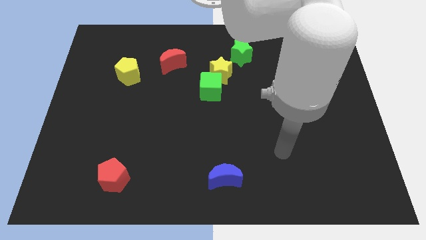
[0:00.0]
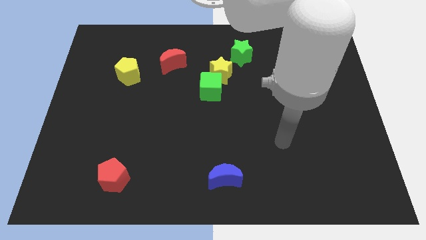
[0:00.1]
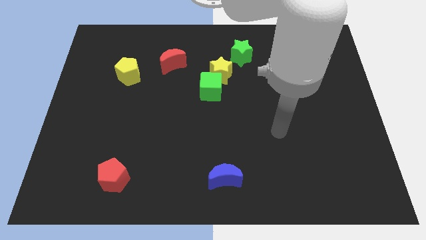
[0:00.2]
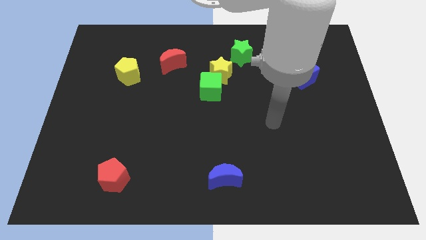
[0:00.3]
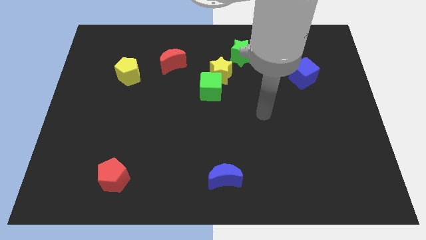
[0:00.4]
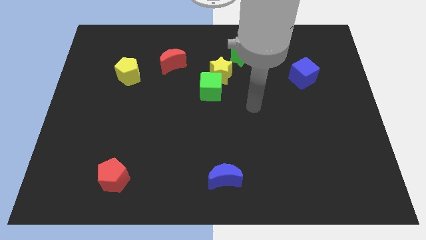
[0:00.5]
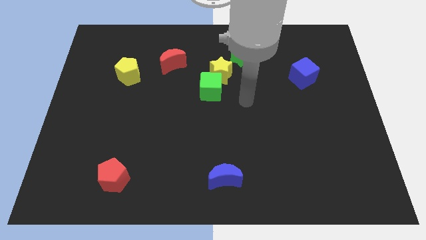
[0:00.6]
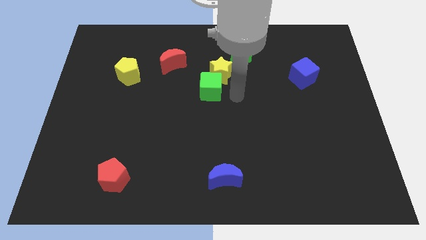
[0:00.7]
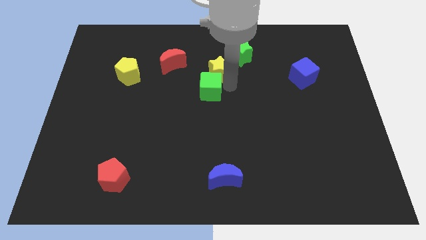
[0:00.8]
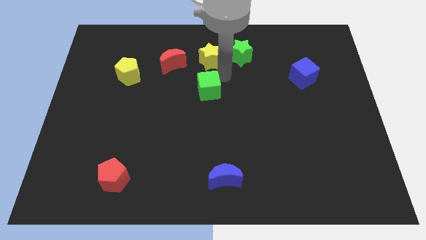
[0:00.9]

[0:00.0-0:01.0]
move the green cube away from the yellow star

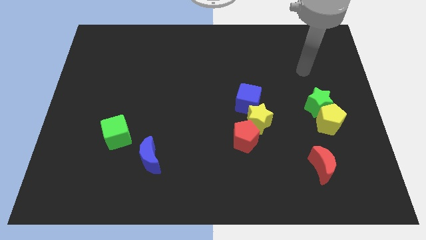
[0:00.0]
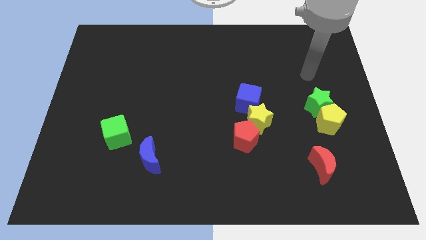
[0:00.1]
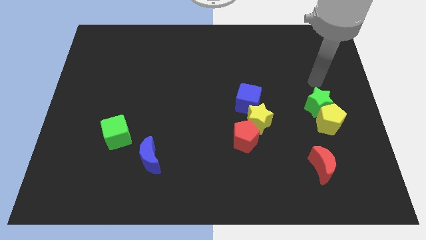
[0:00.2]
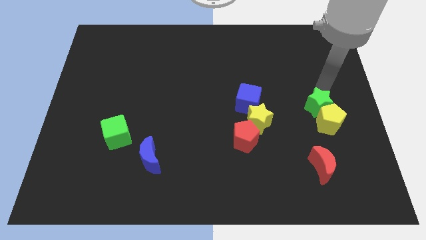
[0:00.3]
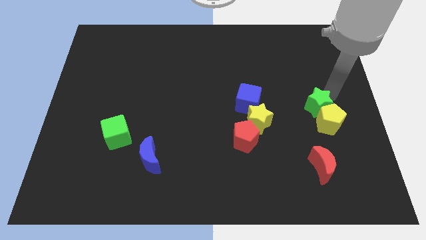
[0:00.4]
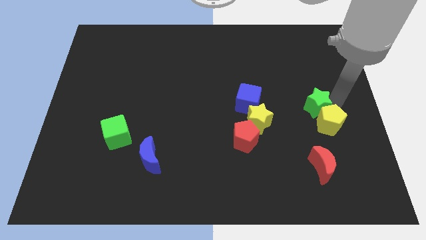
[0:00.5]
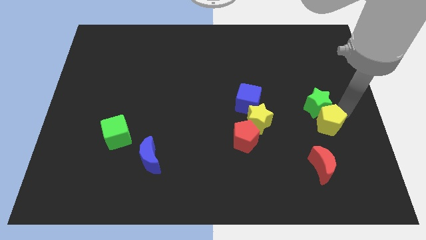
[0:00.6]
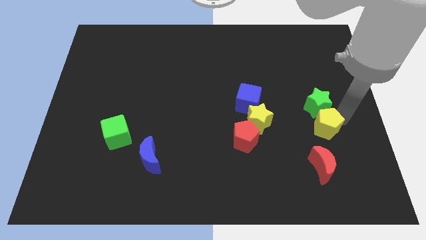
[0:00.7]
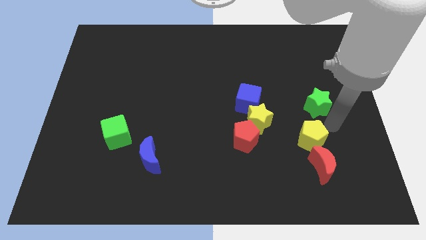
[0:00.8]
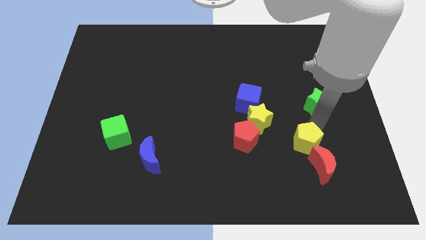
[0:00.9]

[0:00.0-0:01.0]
separate the green star from the yellow pentagon

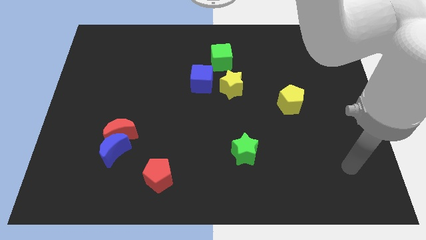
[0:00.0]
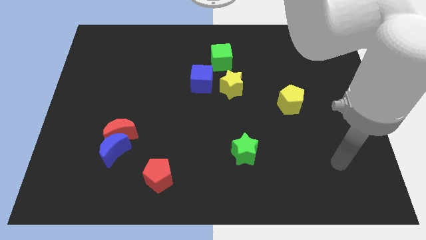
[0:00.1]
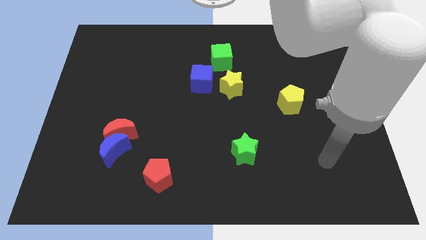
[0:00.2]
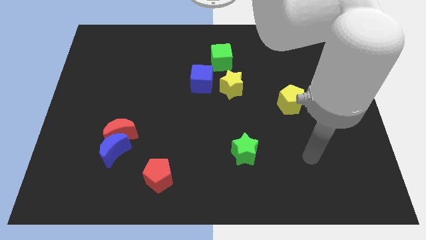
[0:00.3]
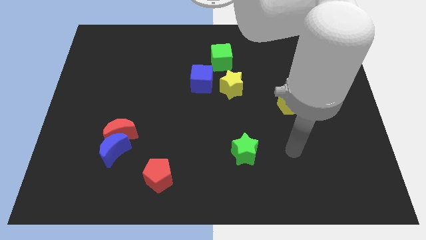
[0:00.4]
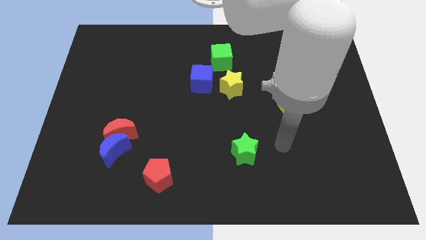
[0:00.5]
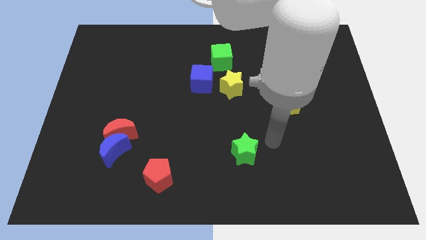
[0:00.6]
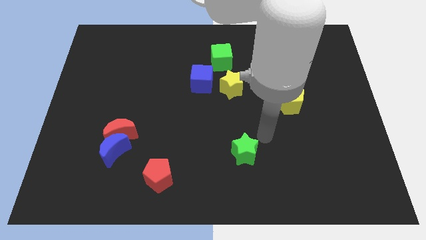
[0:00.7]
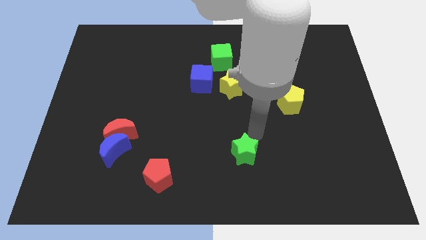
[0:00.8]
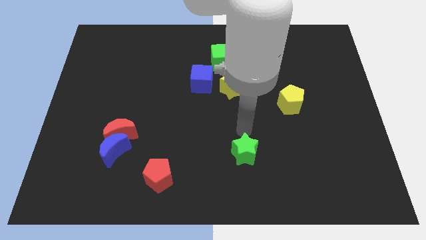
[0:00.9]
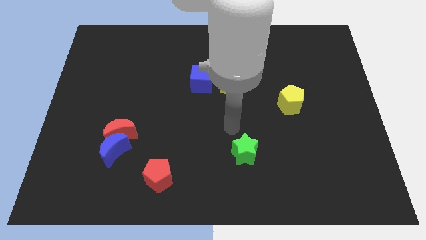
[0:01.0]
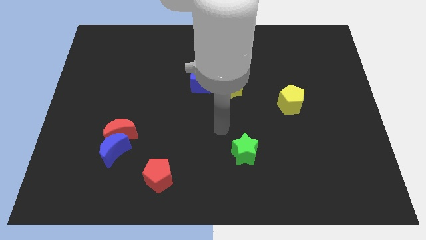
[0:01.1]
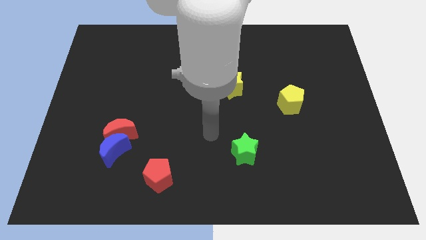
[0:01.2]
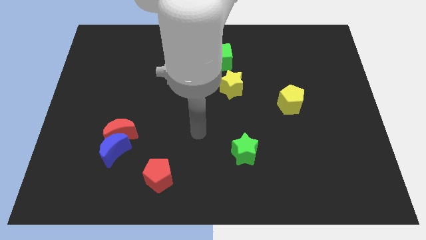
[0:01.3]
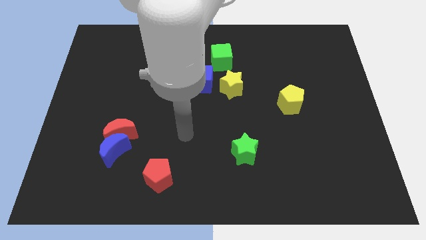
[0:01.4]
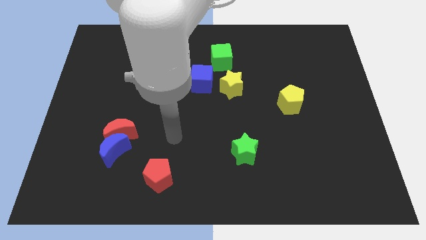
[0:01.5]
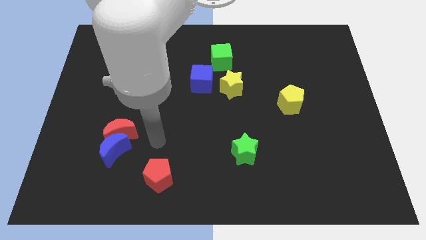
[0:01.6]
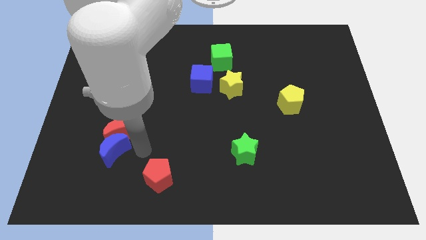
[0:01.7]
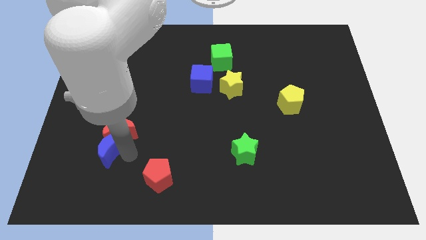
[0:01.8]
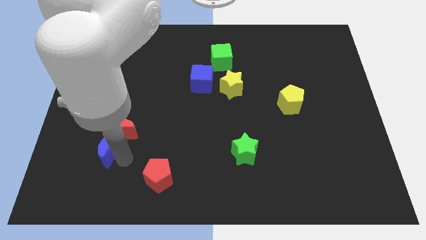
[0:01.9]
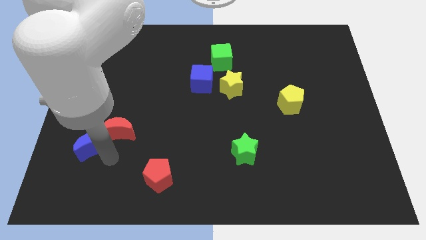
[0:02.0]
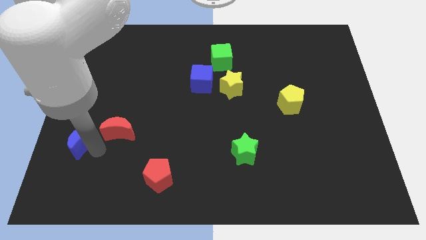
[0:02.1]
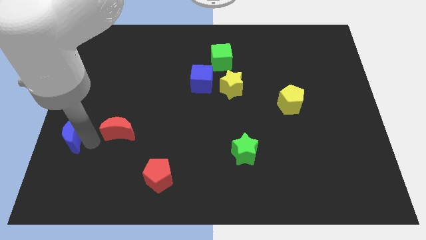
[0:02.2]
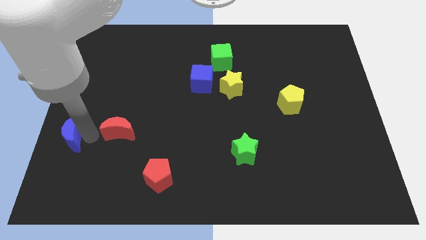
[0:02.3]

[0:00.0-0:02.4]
separate the red moon from the blue moon

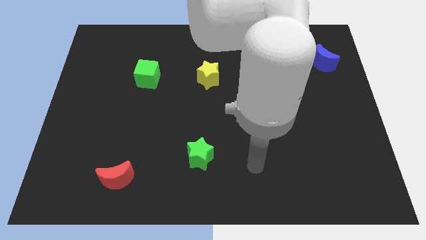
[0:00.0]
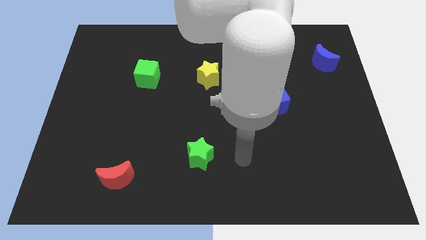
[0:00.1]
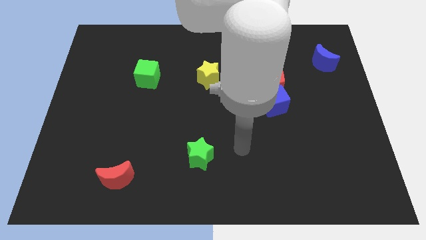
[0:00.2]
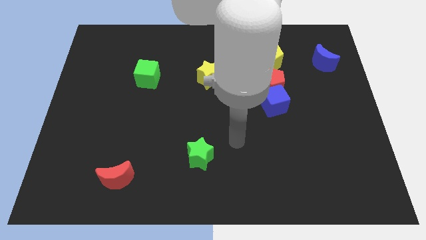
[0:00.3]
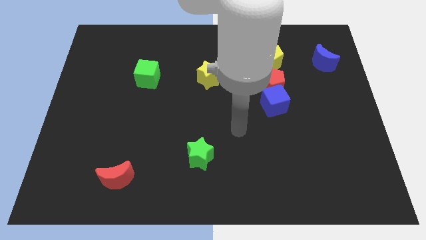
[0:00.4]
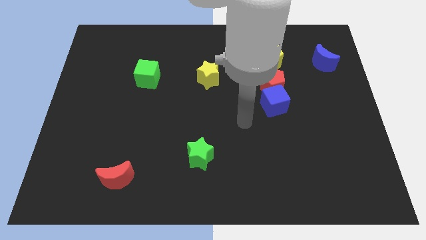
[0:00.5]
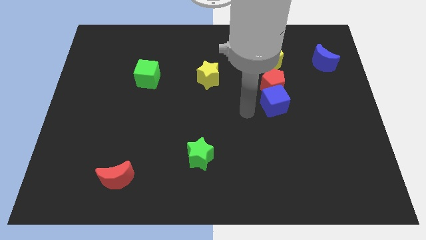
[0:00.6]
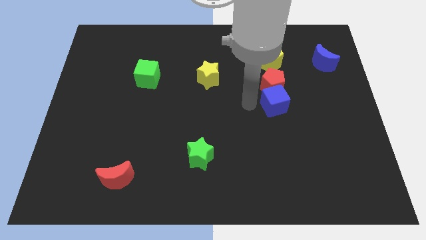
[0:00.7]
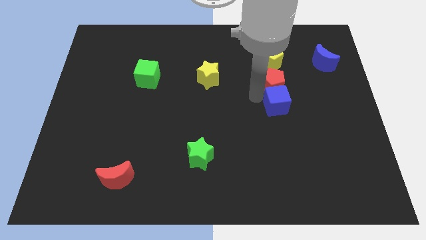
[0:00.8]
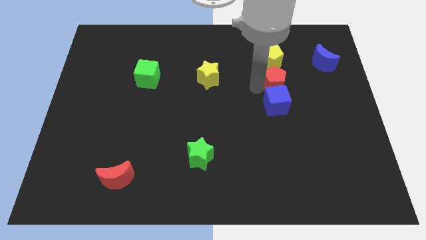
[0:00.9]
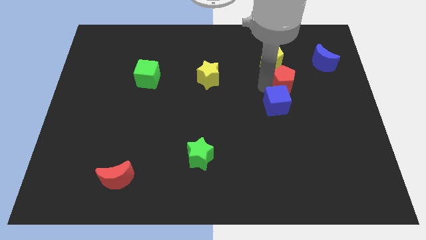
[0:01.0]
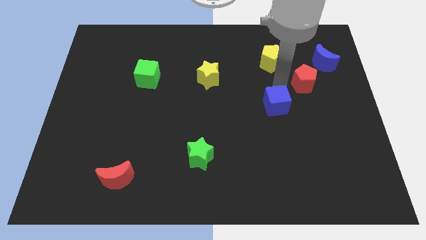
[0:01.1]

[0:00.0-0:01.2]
move the blue cube away from the red pentagon

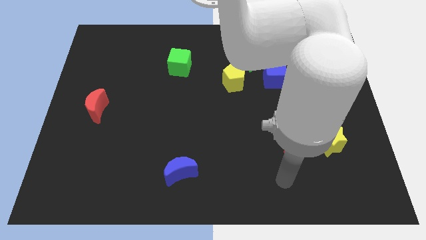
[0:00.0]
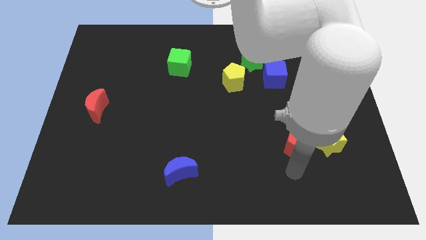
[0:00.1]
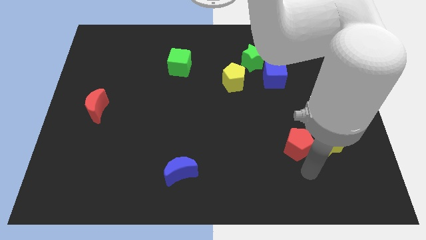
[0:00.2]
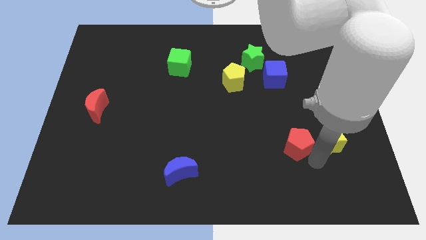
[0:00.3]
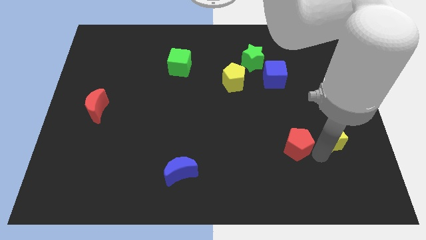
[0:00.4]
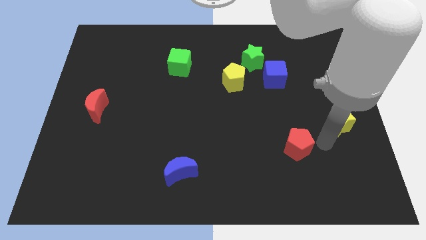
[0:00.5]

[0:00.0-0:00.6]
pull the red pentagon apart from the yellow star

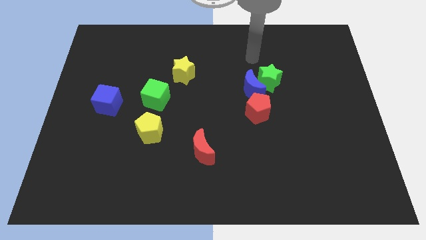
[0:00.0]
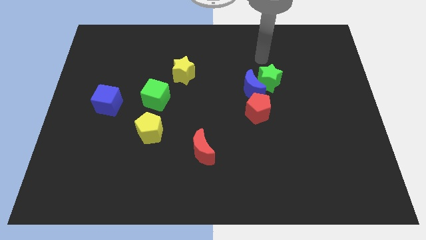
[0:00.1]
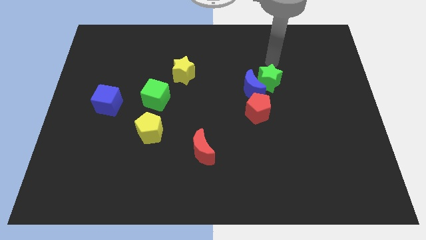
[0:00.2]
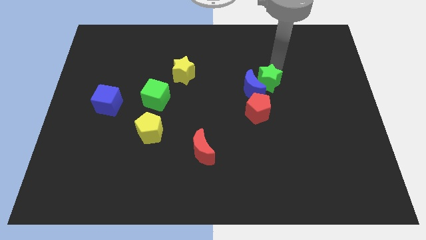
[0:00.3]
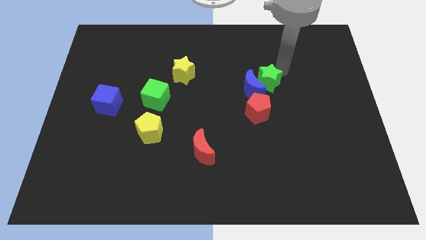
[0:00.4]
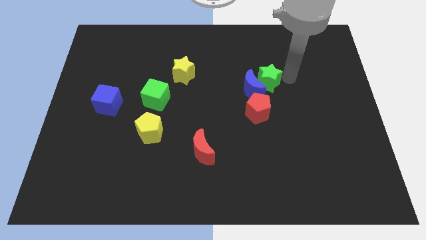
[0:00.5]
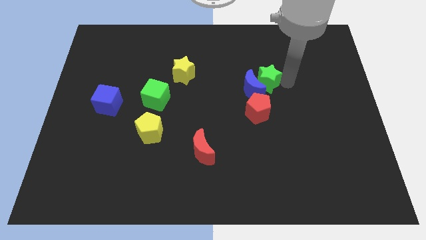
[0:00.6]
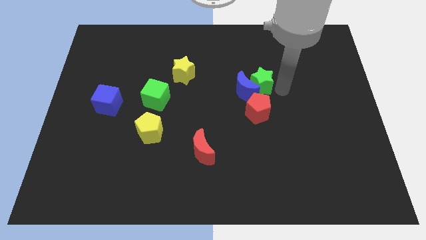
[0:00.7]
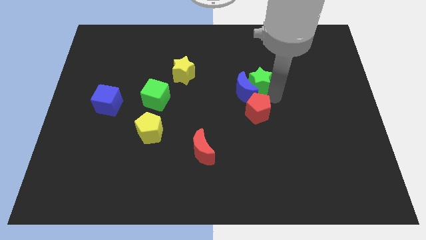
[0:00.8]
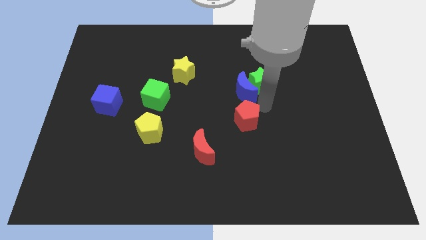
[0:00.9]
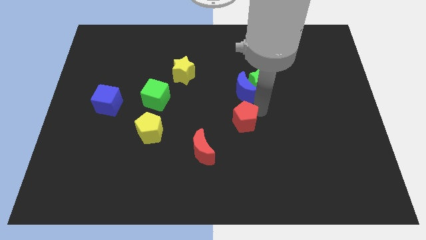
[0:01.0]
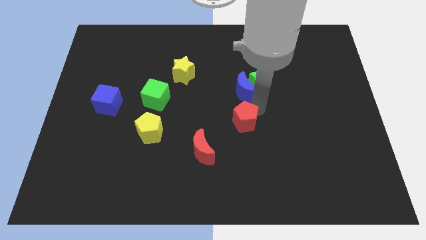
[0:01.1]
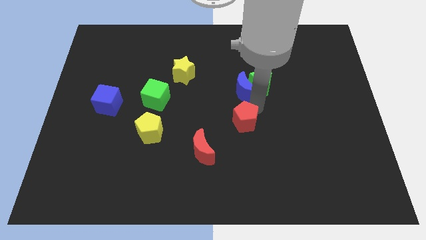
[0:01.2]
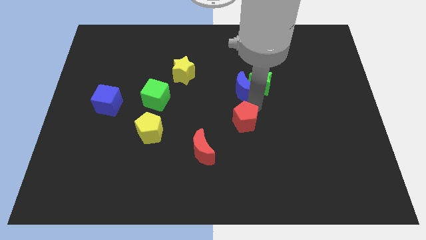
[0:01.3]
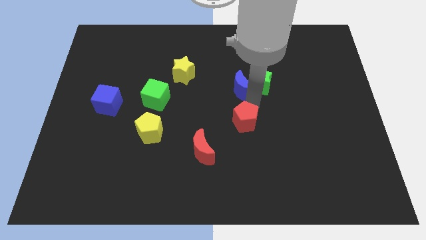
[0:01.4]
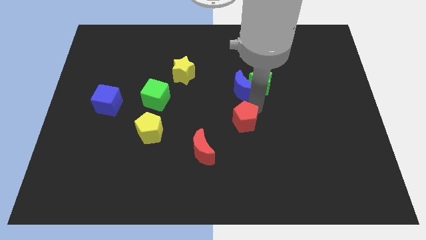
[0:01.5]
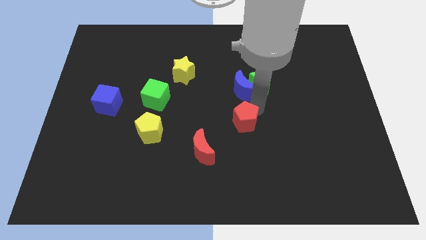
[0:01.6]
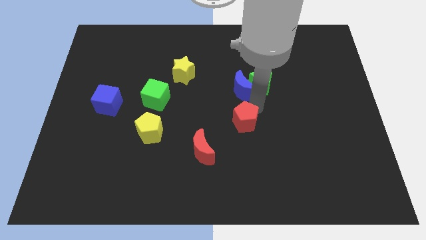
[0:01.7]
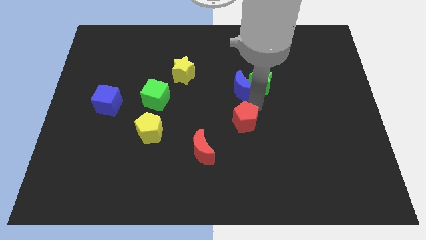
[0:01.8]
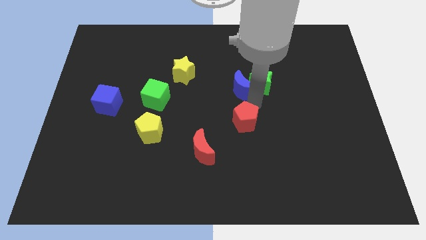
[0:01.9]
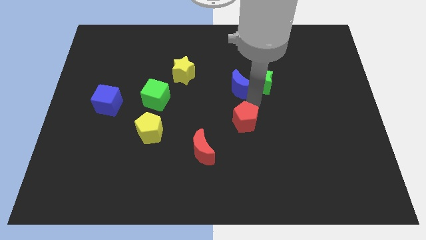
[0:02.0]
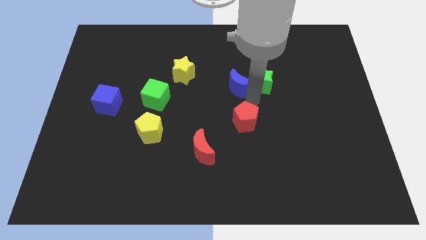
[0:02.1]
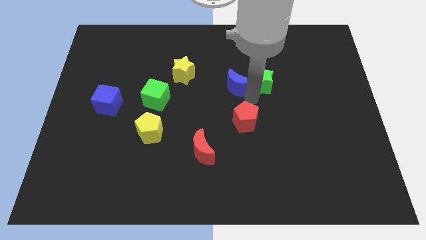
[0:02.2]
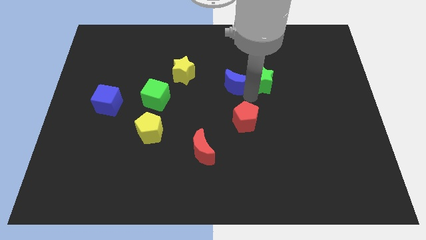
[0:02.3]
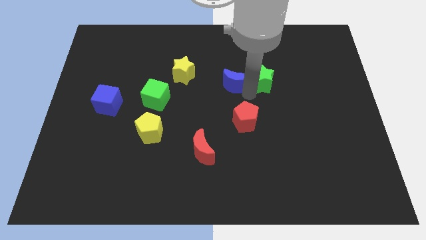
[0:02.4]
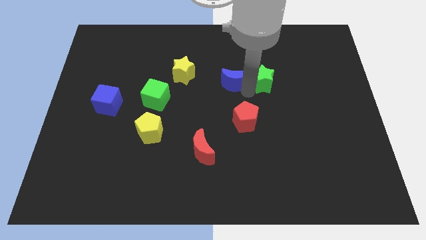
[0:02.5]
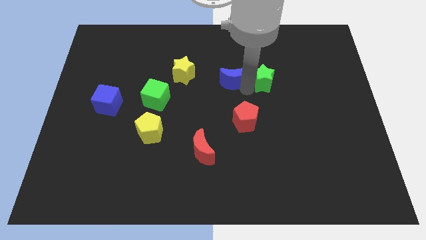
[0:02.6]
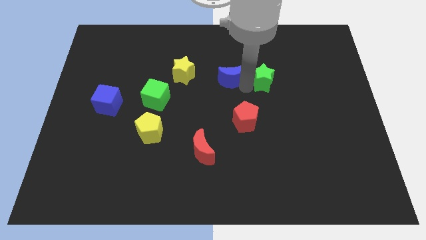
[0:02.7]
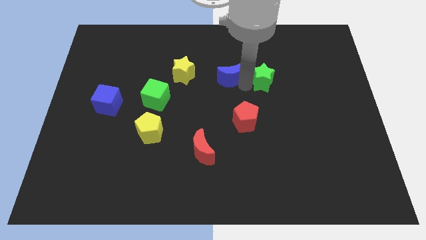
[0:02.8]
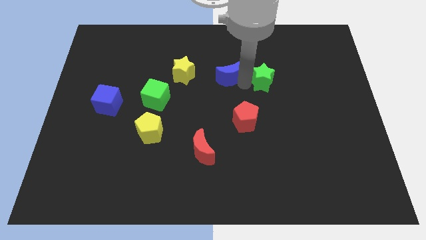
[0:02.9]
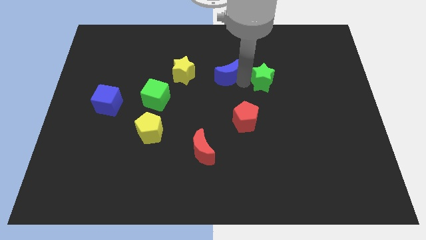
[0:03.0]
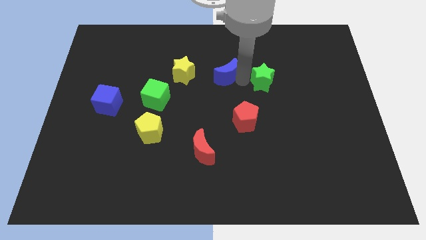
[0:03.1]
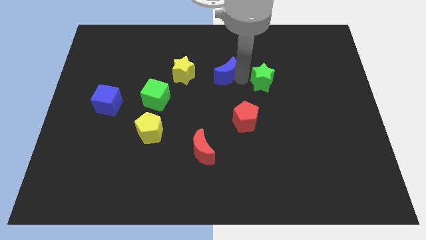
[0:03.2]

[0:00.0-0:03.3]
pull the blue moon apart from the green star and red pentagon
